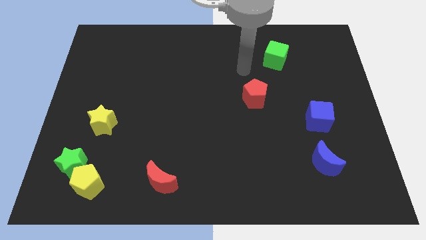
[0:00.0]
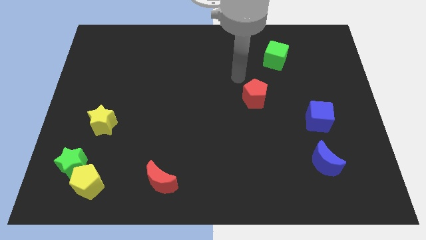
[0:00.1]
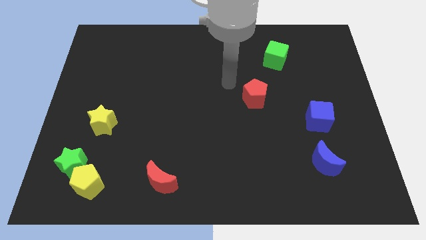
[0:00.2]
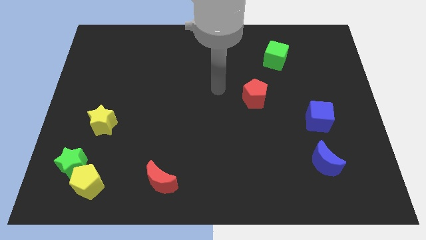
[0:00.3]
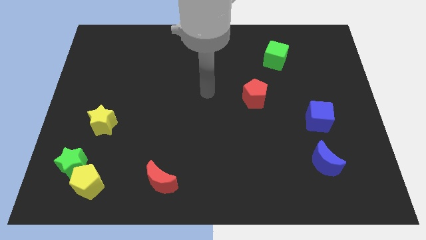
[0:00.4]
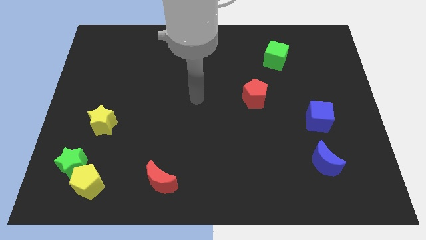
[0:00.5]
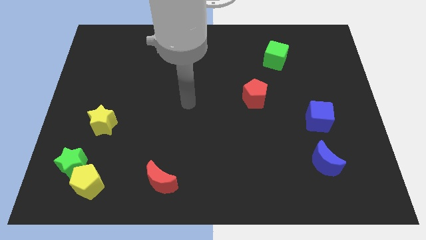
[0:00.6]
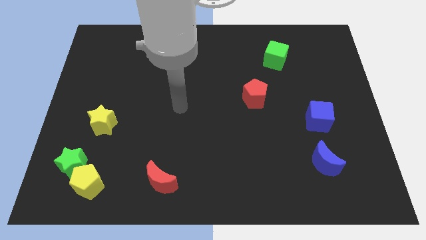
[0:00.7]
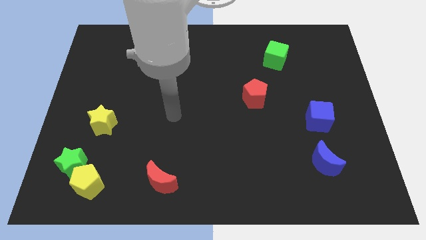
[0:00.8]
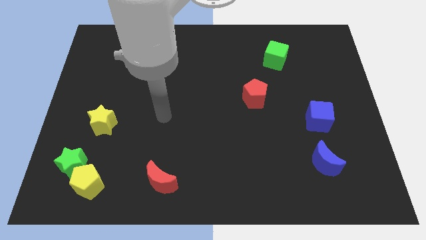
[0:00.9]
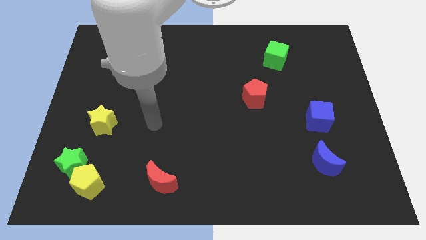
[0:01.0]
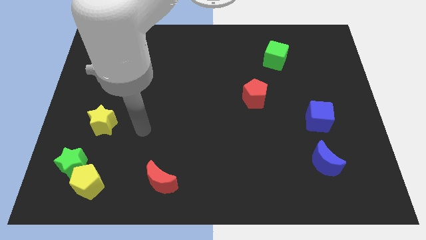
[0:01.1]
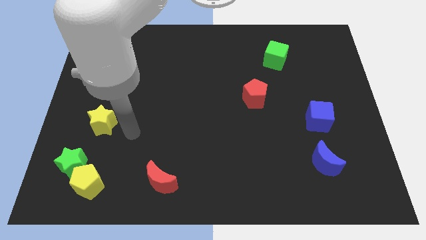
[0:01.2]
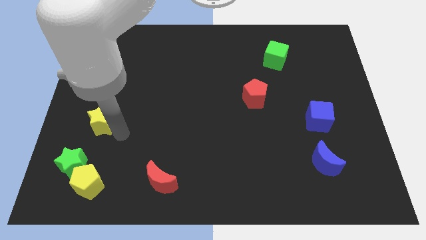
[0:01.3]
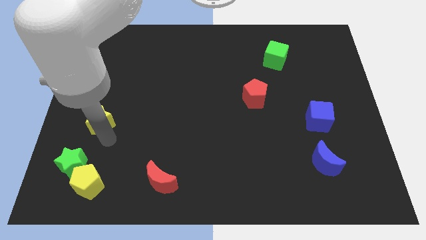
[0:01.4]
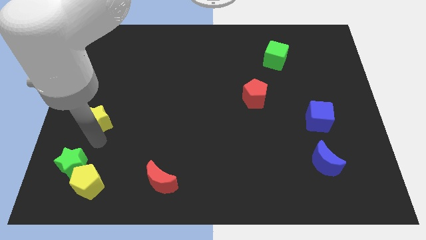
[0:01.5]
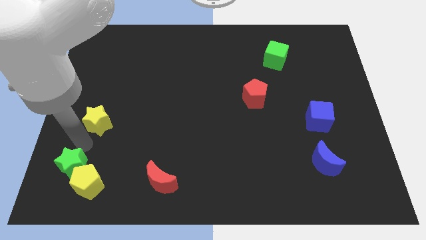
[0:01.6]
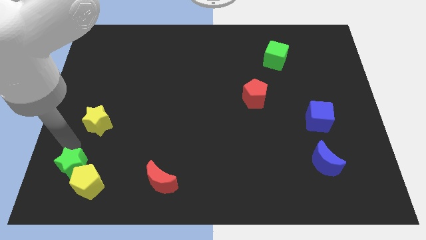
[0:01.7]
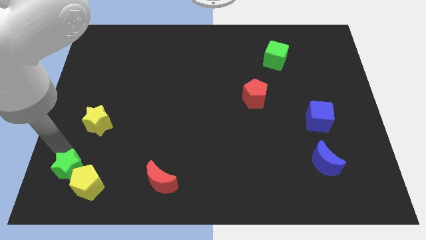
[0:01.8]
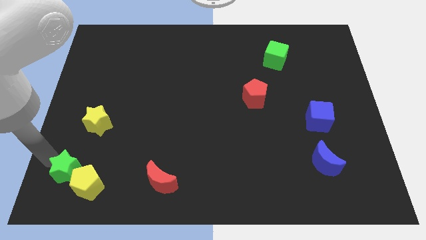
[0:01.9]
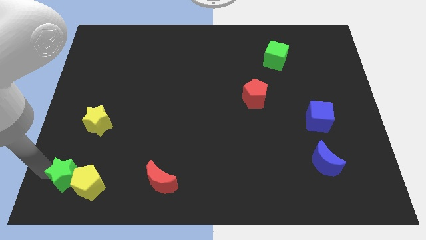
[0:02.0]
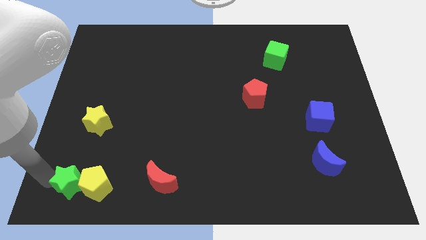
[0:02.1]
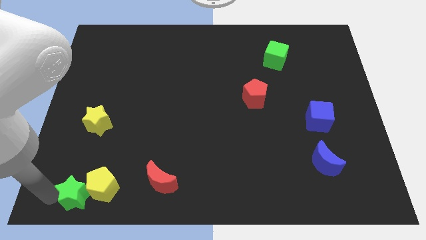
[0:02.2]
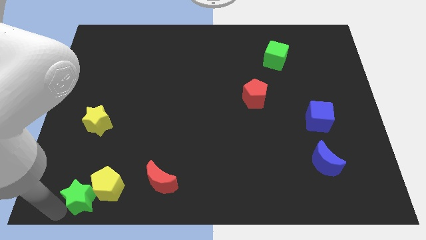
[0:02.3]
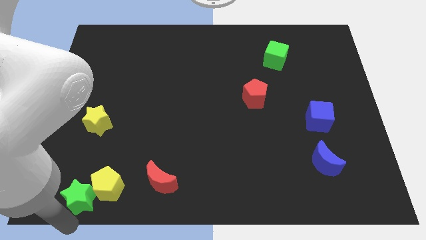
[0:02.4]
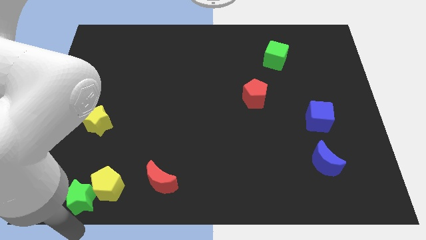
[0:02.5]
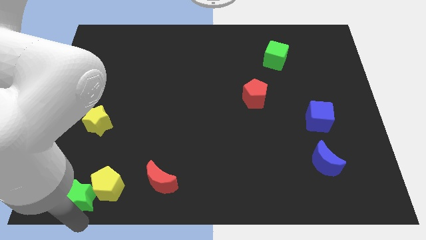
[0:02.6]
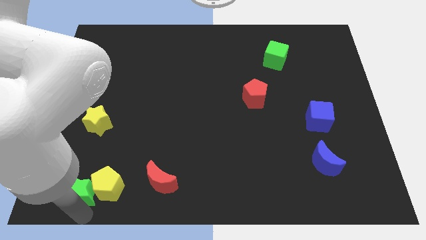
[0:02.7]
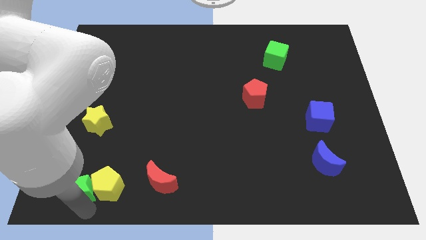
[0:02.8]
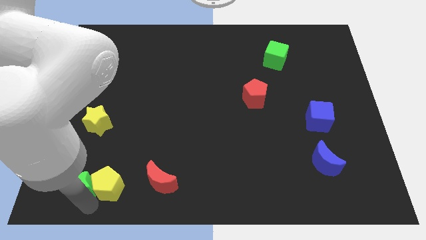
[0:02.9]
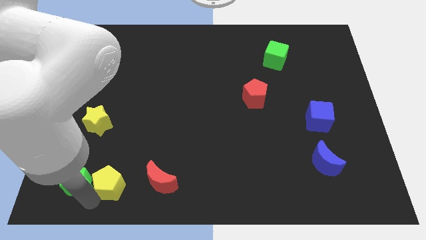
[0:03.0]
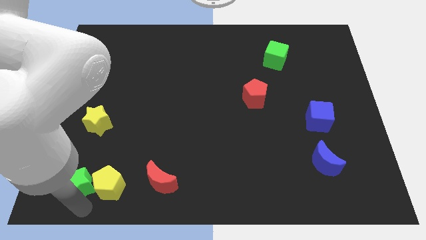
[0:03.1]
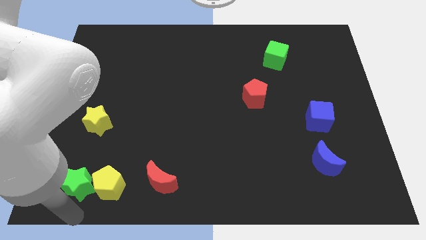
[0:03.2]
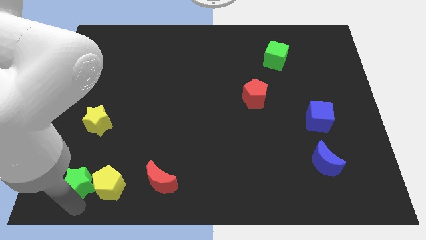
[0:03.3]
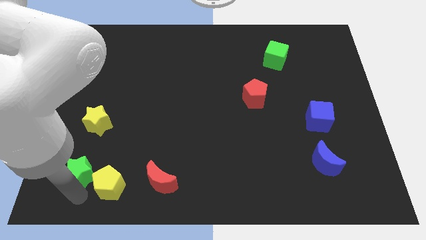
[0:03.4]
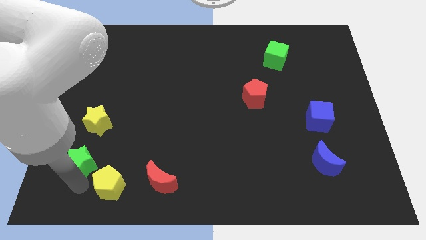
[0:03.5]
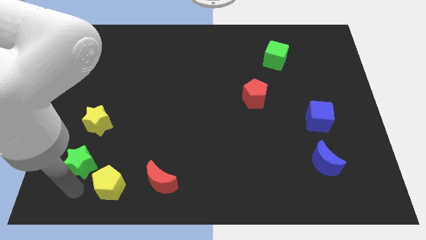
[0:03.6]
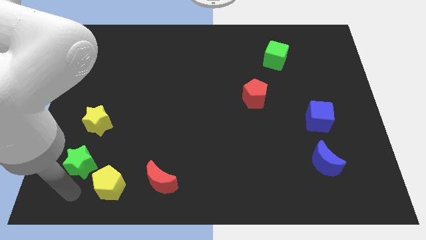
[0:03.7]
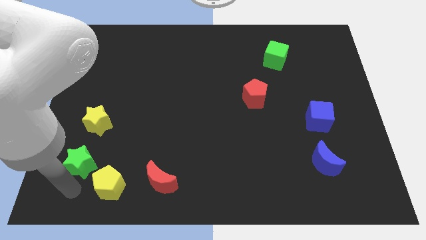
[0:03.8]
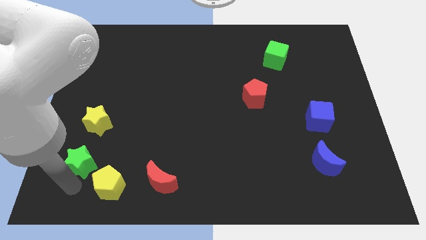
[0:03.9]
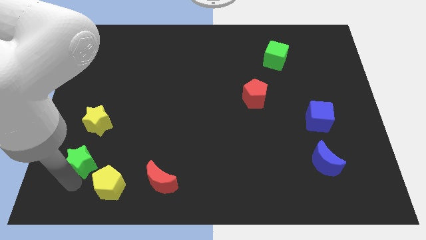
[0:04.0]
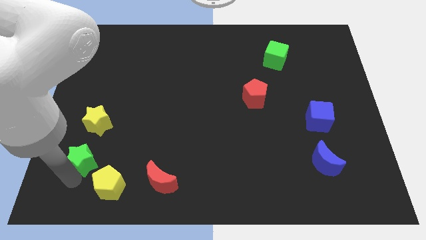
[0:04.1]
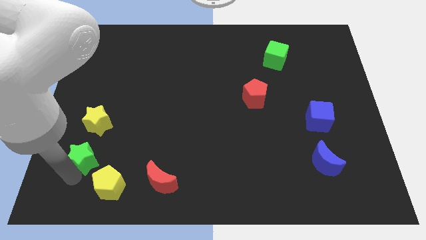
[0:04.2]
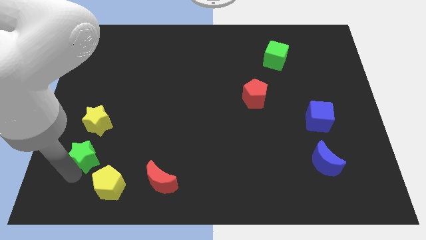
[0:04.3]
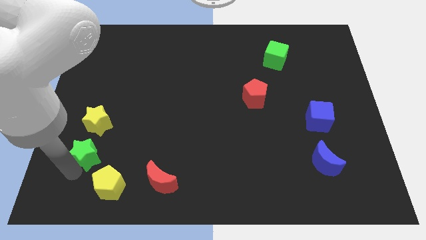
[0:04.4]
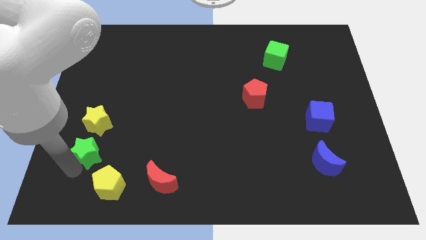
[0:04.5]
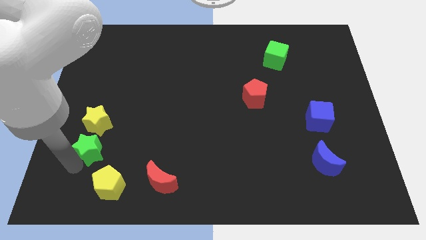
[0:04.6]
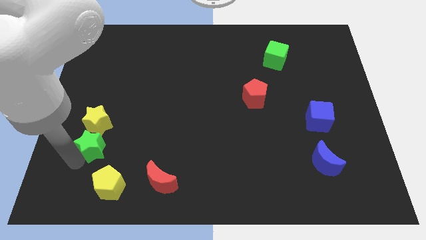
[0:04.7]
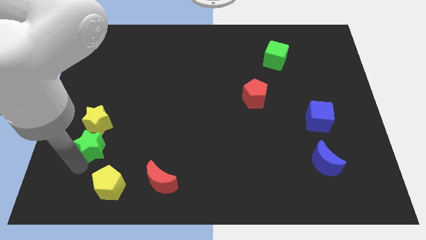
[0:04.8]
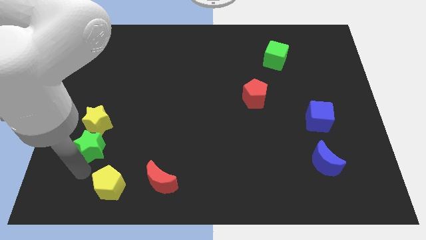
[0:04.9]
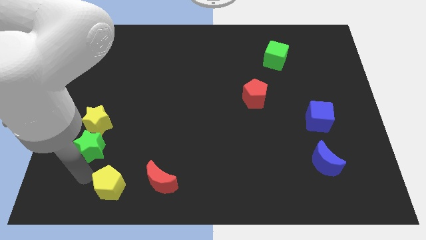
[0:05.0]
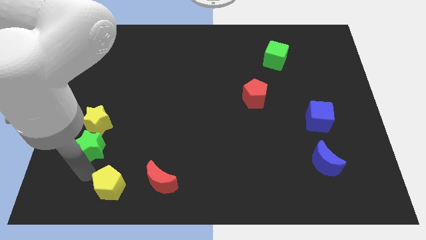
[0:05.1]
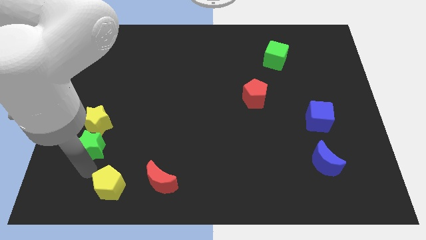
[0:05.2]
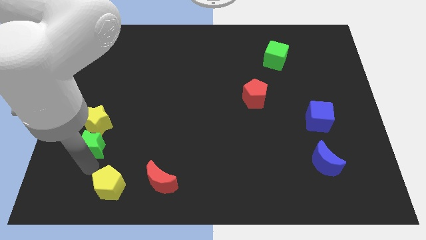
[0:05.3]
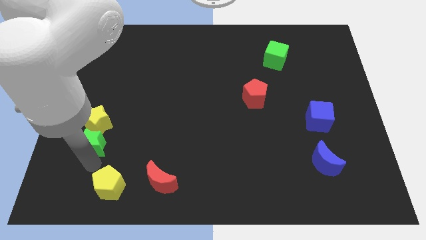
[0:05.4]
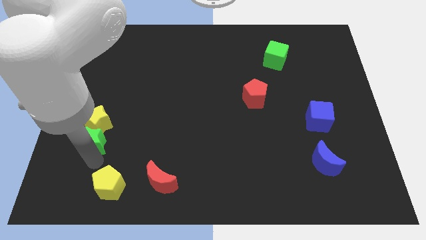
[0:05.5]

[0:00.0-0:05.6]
push the green star towards the yellow star

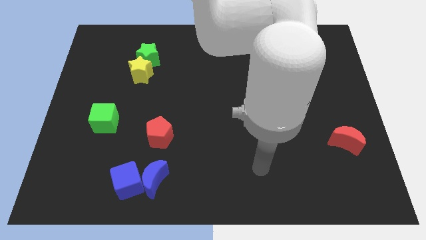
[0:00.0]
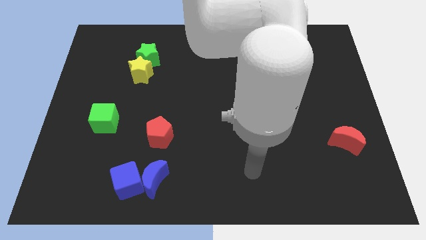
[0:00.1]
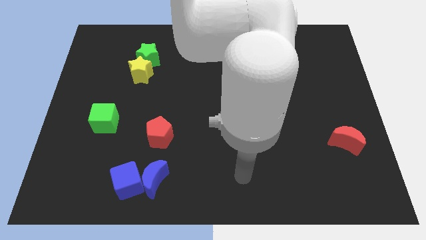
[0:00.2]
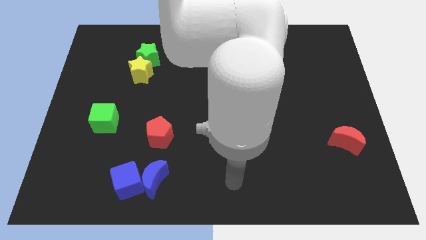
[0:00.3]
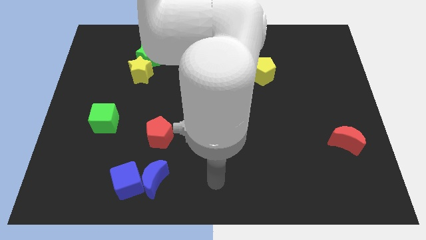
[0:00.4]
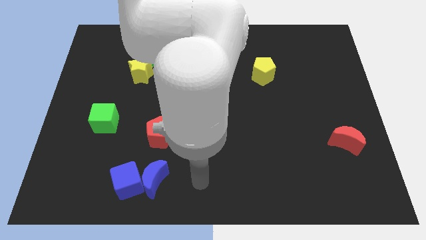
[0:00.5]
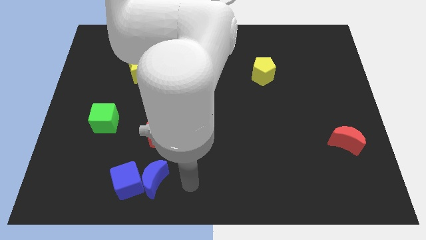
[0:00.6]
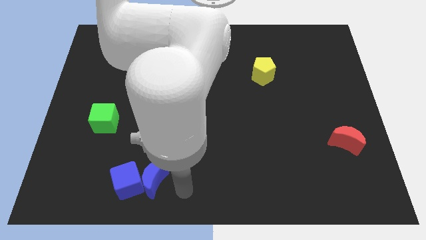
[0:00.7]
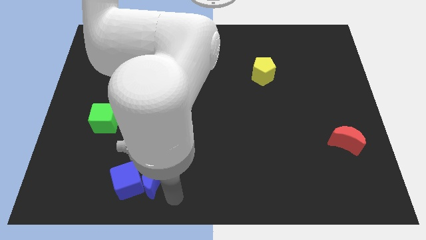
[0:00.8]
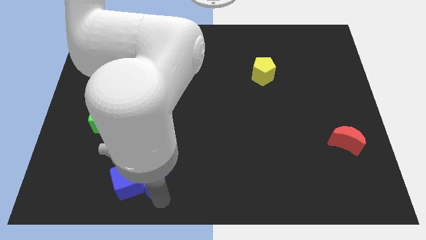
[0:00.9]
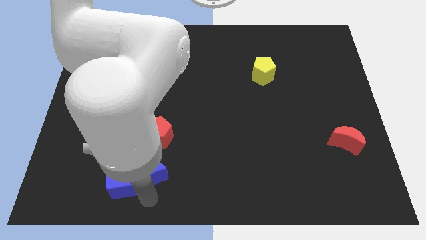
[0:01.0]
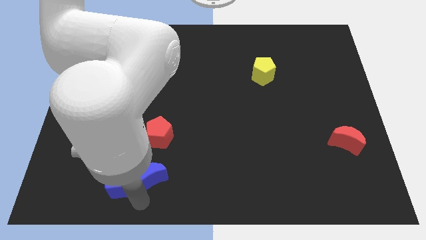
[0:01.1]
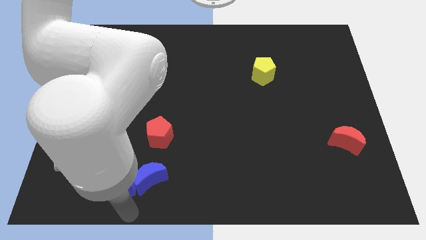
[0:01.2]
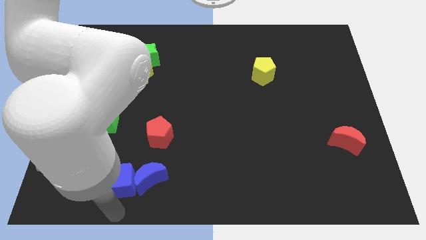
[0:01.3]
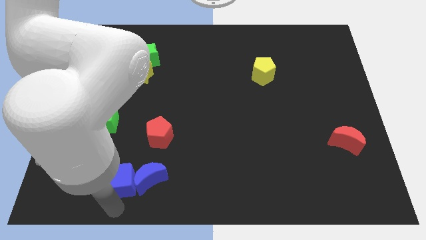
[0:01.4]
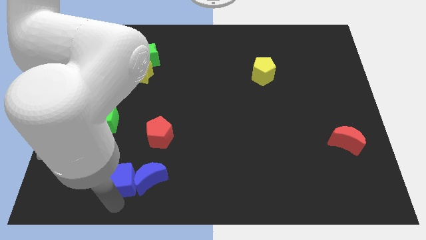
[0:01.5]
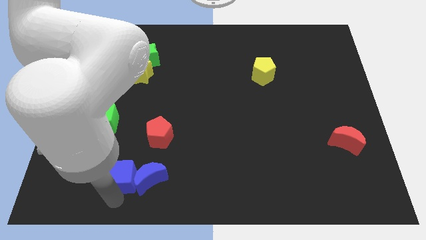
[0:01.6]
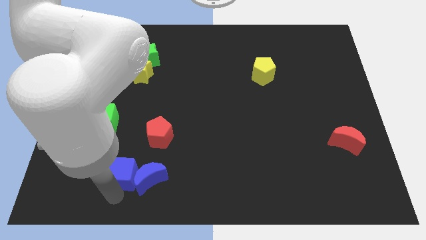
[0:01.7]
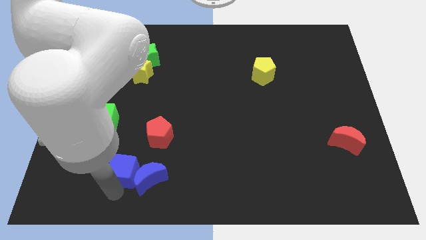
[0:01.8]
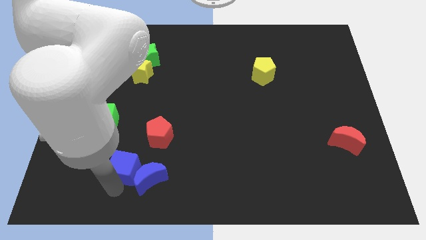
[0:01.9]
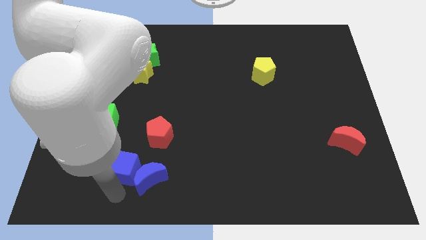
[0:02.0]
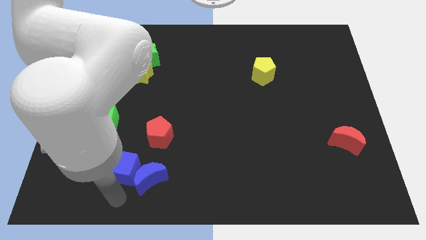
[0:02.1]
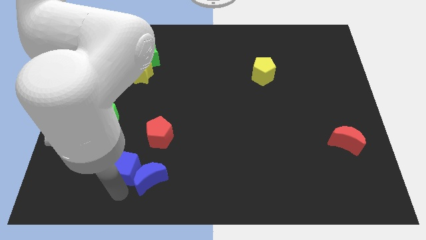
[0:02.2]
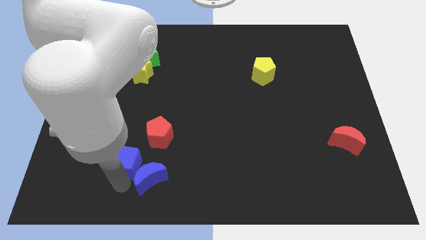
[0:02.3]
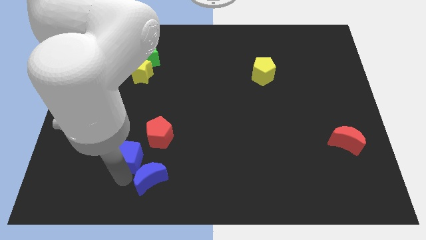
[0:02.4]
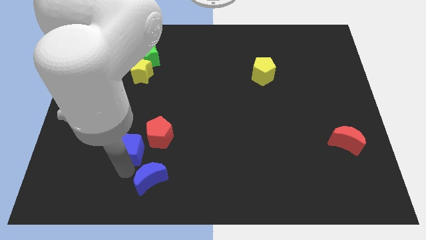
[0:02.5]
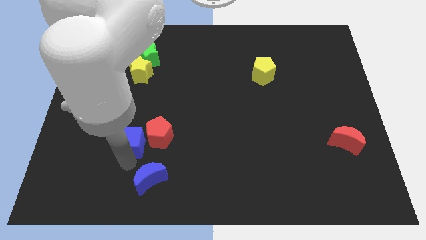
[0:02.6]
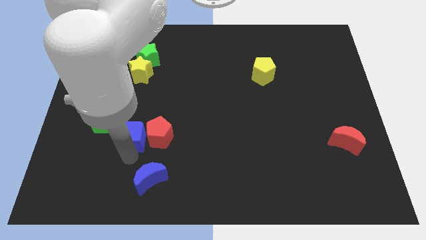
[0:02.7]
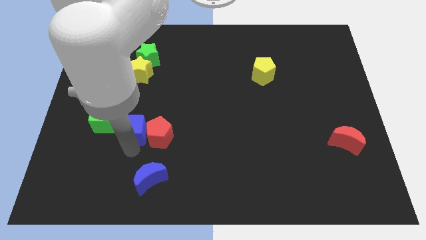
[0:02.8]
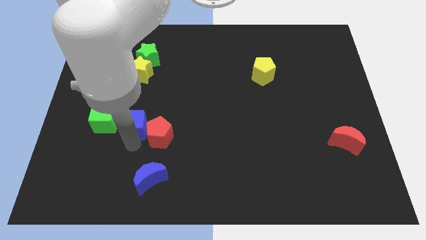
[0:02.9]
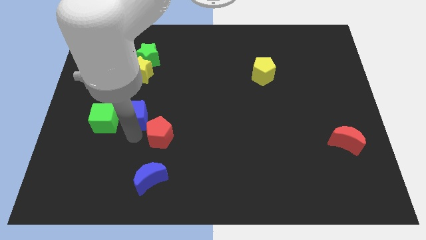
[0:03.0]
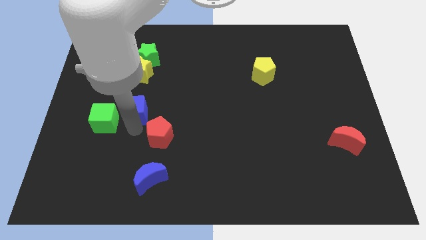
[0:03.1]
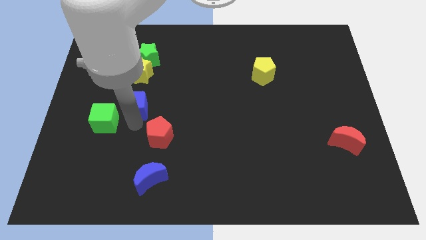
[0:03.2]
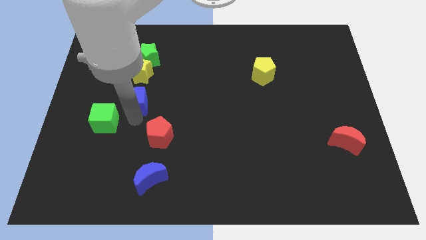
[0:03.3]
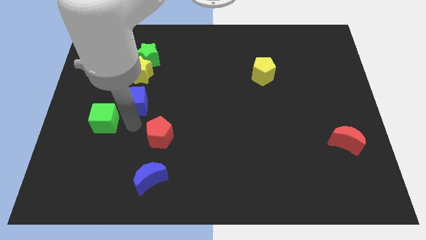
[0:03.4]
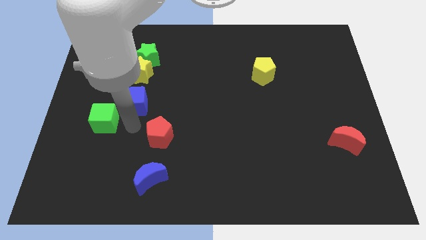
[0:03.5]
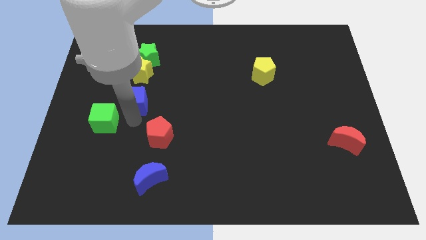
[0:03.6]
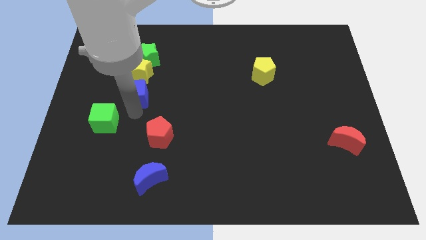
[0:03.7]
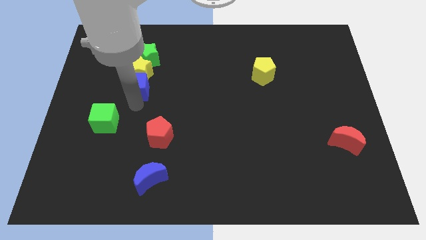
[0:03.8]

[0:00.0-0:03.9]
move the blue cube next to the yellow star
